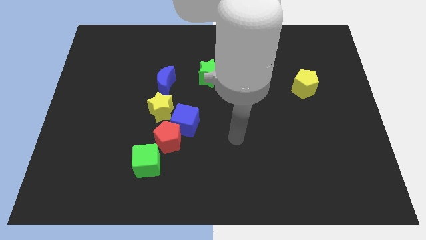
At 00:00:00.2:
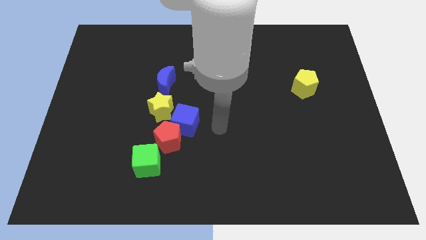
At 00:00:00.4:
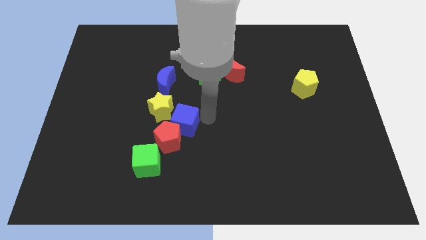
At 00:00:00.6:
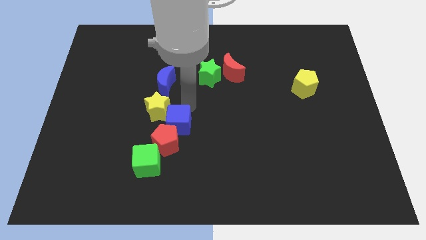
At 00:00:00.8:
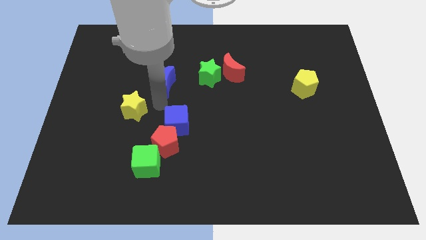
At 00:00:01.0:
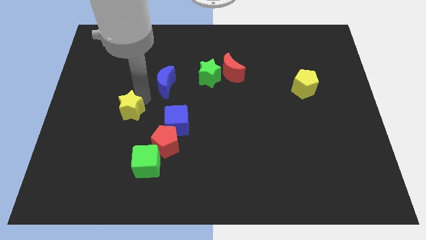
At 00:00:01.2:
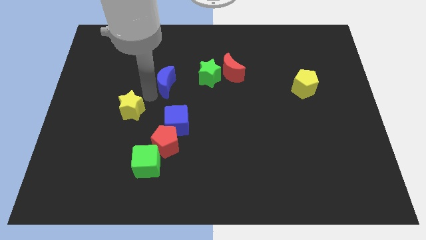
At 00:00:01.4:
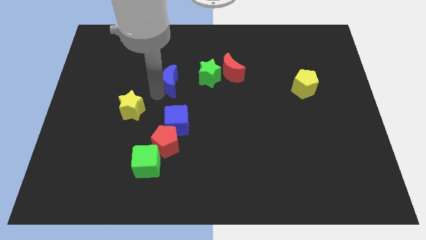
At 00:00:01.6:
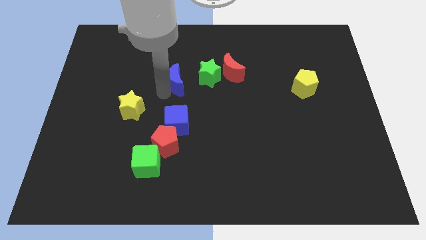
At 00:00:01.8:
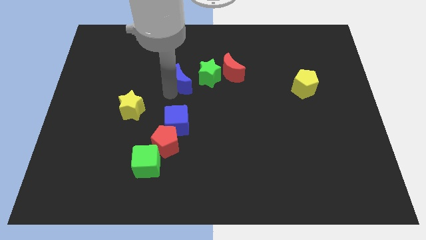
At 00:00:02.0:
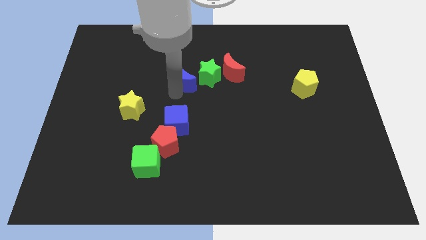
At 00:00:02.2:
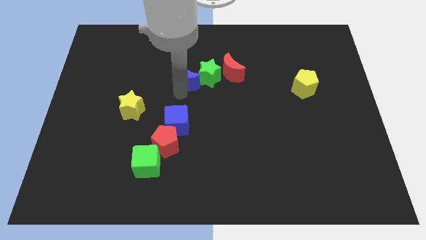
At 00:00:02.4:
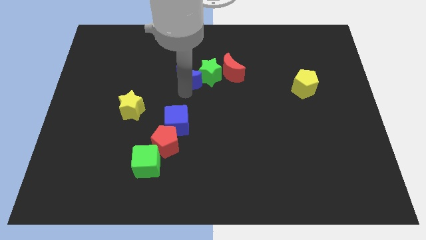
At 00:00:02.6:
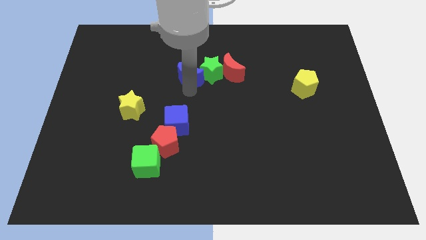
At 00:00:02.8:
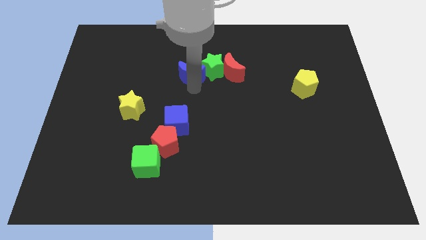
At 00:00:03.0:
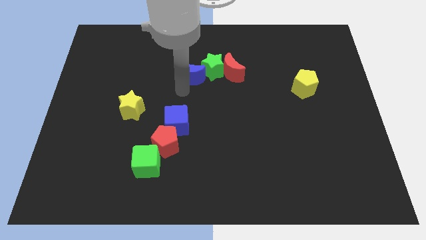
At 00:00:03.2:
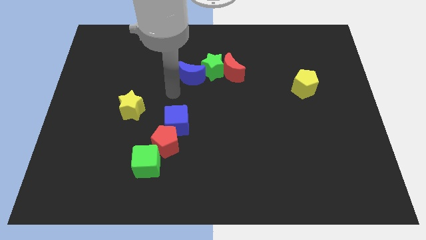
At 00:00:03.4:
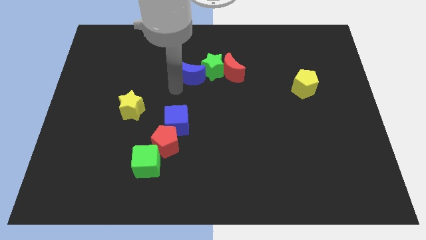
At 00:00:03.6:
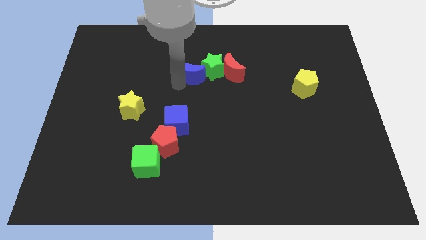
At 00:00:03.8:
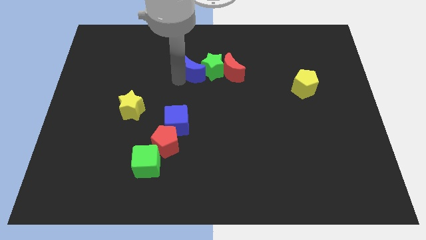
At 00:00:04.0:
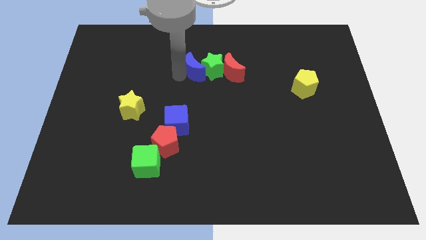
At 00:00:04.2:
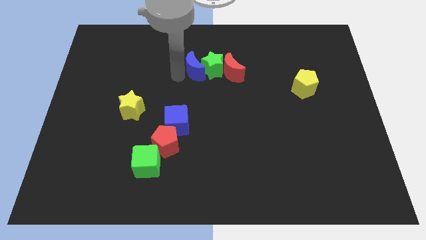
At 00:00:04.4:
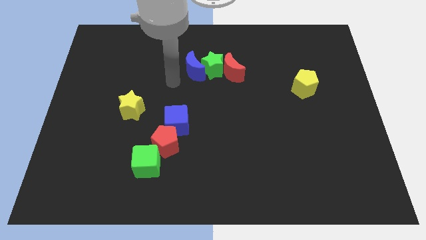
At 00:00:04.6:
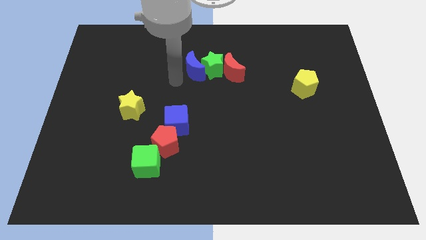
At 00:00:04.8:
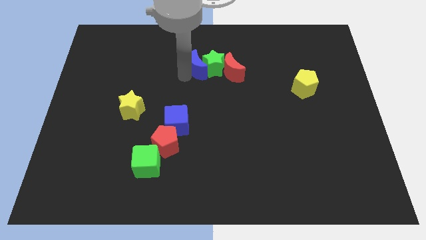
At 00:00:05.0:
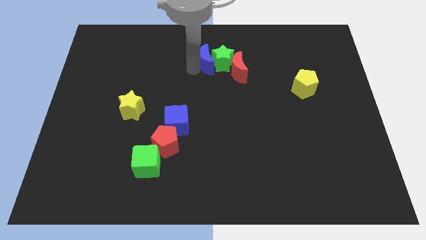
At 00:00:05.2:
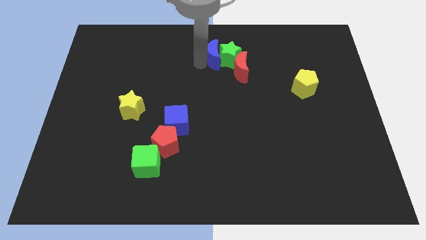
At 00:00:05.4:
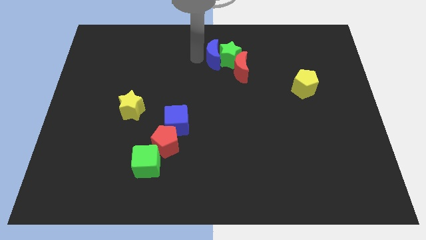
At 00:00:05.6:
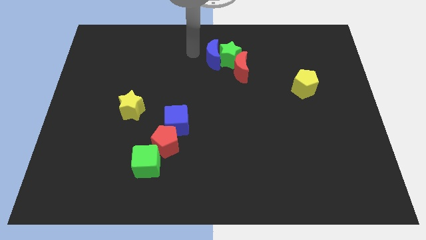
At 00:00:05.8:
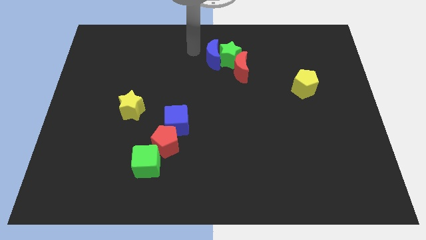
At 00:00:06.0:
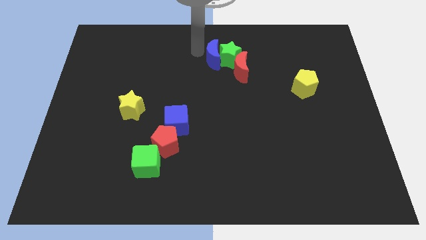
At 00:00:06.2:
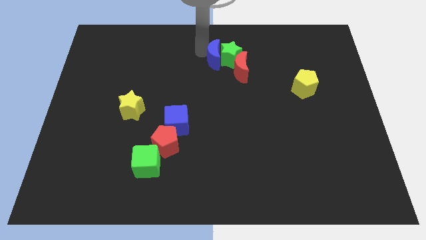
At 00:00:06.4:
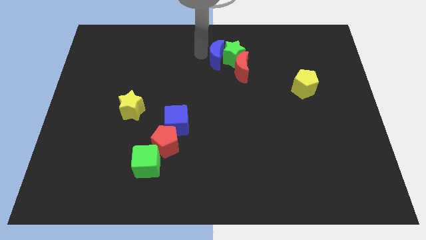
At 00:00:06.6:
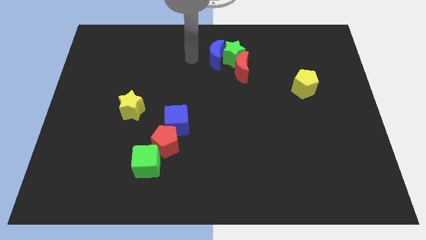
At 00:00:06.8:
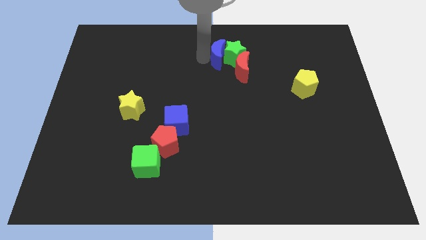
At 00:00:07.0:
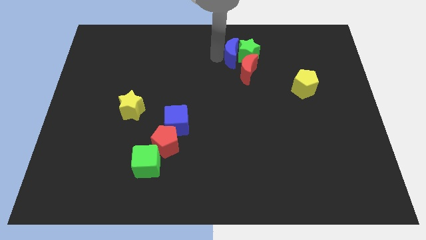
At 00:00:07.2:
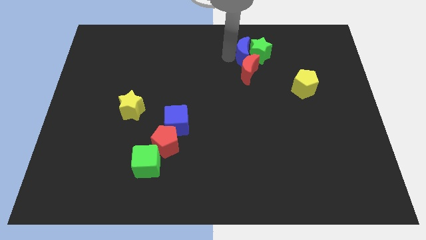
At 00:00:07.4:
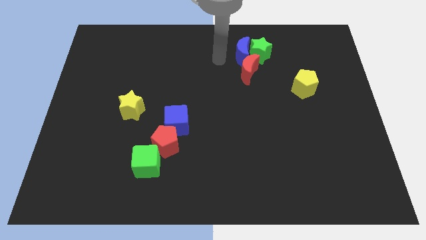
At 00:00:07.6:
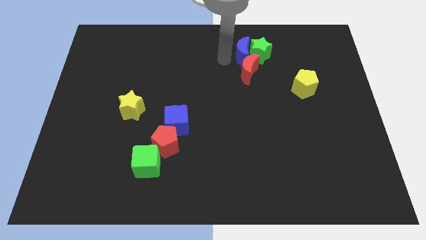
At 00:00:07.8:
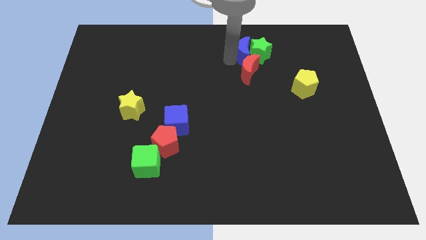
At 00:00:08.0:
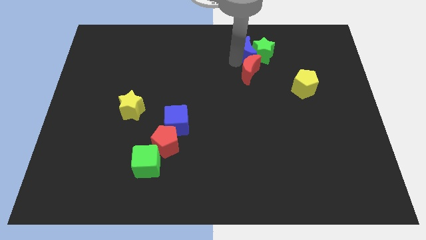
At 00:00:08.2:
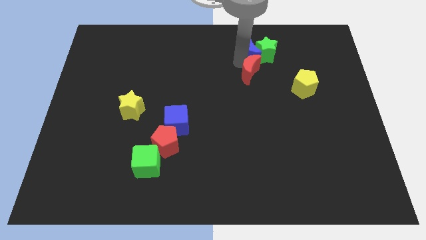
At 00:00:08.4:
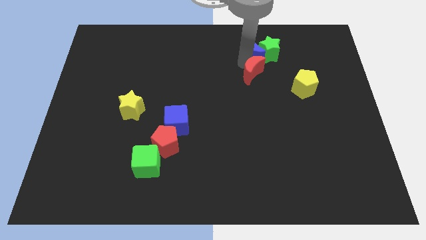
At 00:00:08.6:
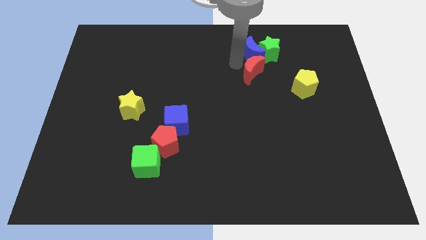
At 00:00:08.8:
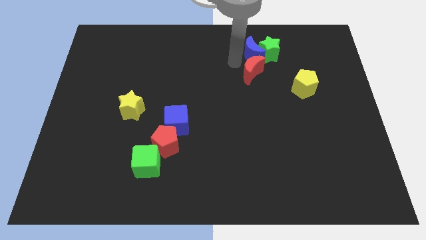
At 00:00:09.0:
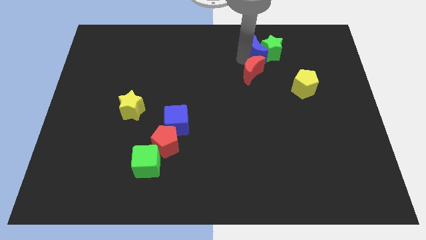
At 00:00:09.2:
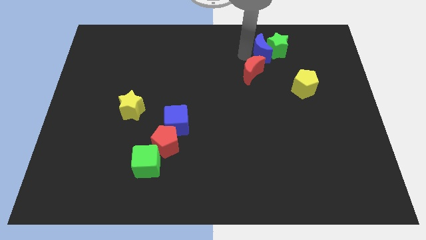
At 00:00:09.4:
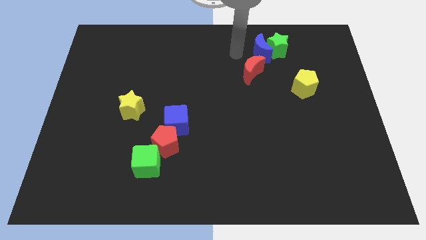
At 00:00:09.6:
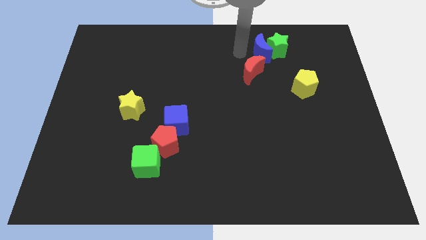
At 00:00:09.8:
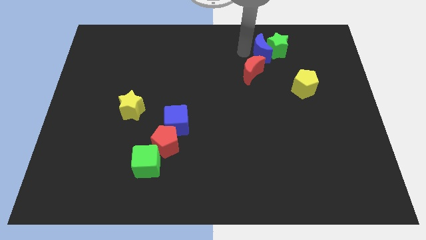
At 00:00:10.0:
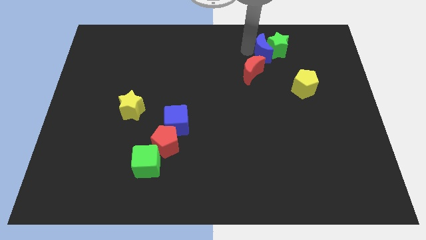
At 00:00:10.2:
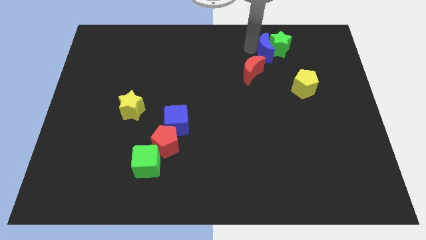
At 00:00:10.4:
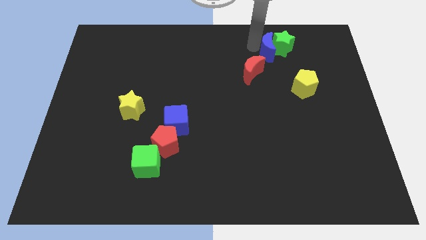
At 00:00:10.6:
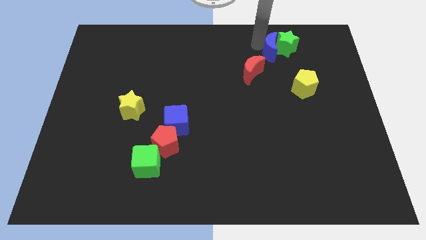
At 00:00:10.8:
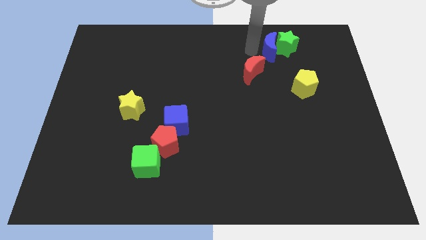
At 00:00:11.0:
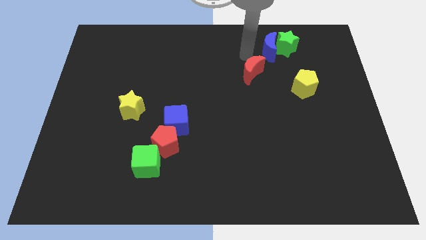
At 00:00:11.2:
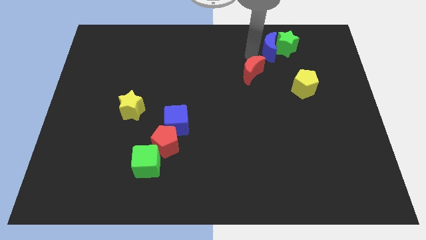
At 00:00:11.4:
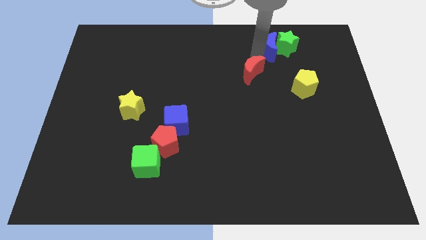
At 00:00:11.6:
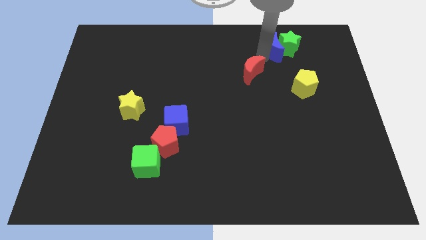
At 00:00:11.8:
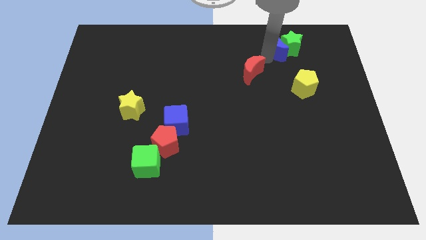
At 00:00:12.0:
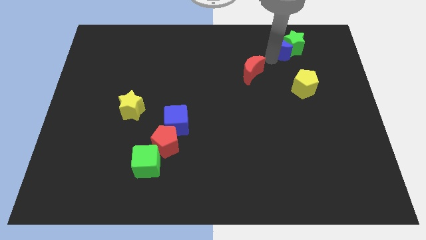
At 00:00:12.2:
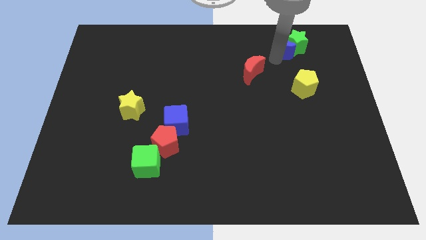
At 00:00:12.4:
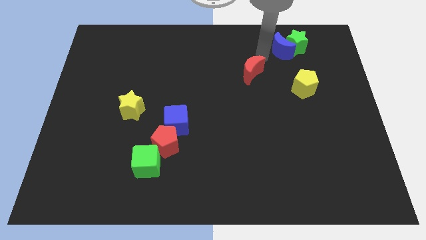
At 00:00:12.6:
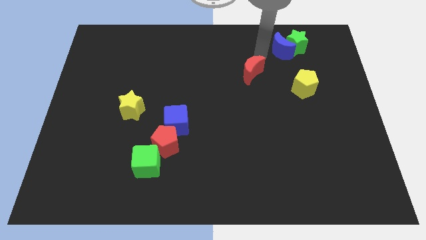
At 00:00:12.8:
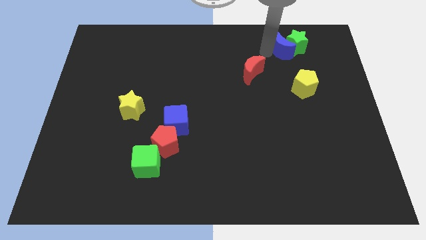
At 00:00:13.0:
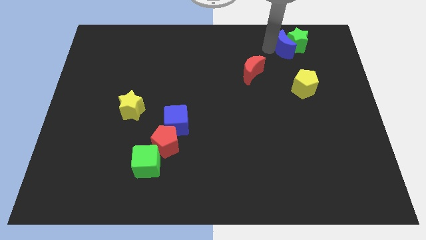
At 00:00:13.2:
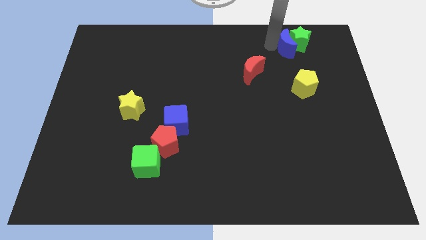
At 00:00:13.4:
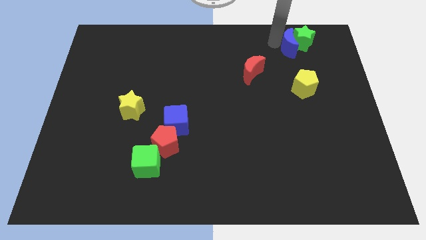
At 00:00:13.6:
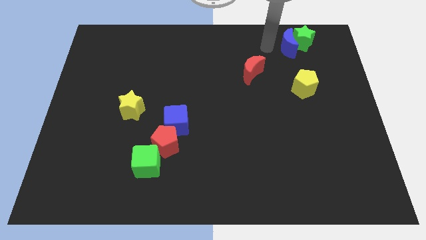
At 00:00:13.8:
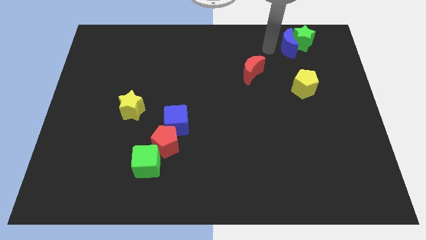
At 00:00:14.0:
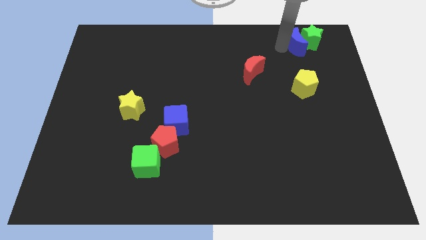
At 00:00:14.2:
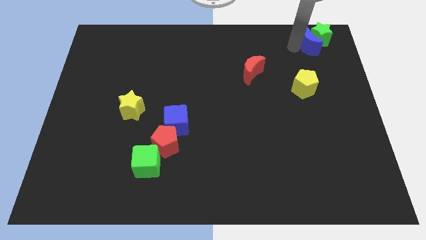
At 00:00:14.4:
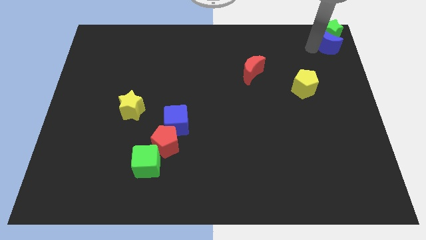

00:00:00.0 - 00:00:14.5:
move the blue moon to the top right
